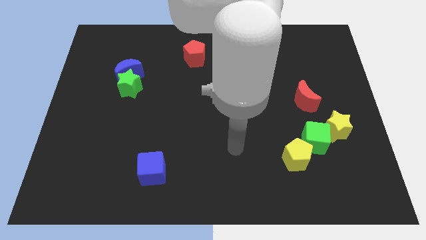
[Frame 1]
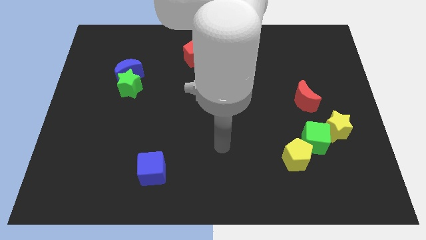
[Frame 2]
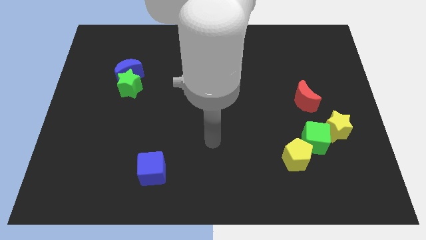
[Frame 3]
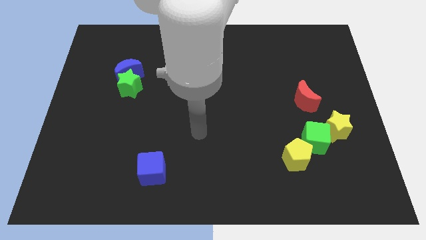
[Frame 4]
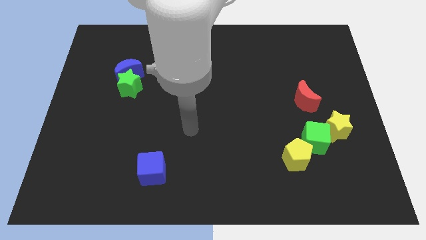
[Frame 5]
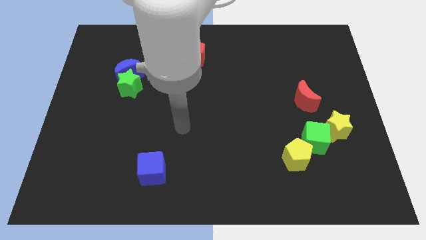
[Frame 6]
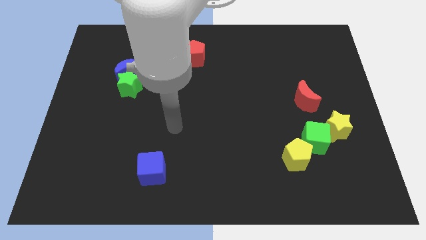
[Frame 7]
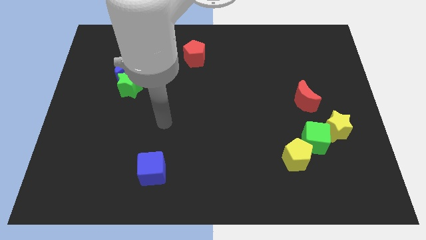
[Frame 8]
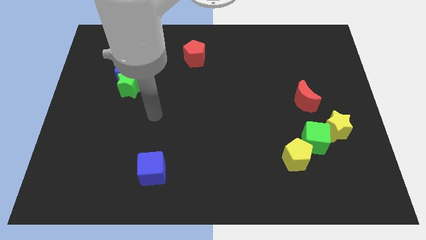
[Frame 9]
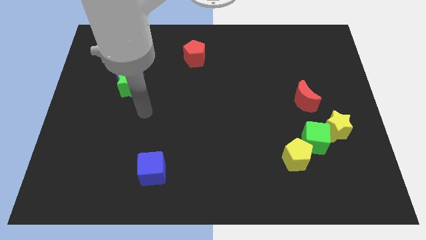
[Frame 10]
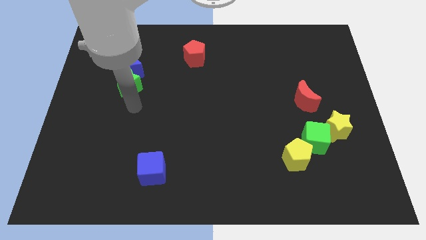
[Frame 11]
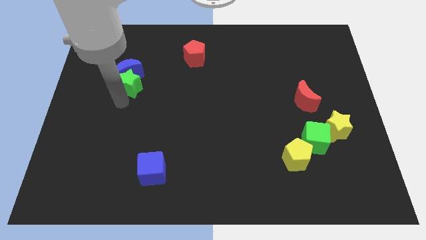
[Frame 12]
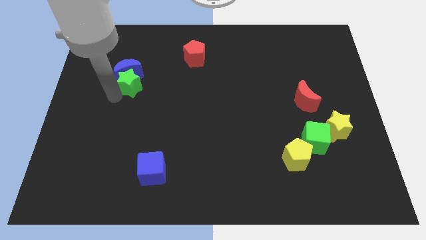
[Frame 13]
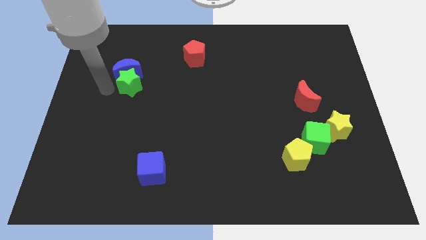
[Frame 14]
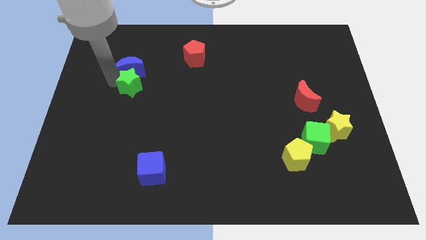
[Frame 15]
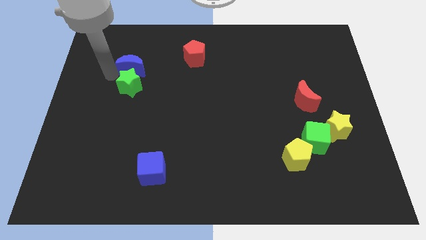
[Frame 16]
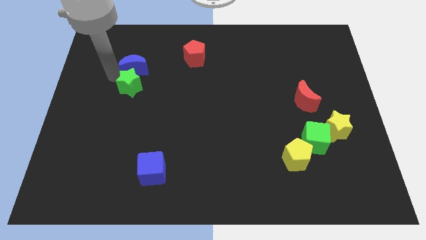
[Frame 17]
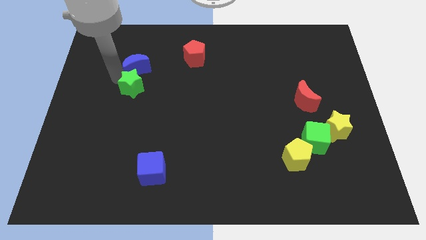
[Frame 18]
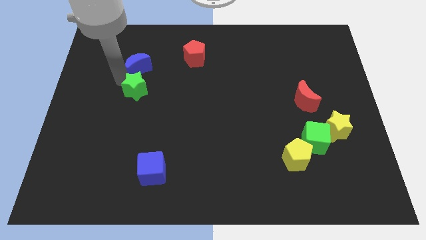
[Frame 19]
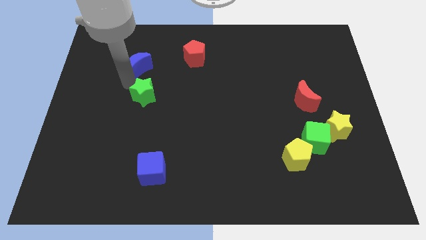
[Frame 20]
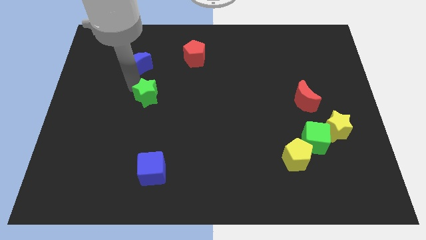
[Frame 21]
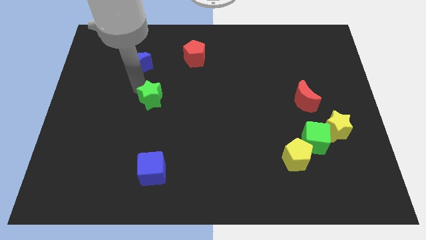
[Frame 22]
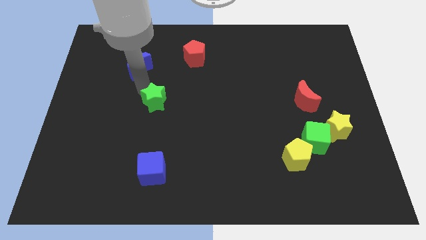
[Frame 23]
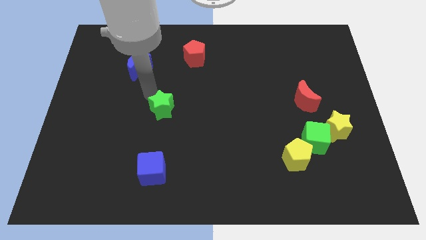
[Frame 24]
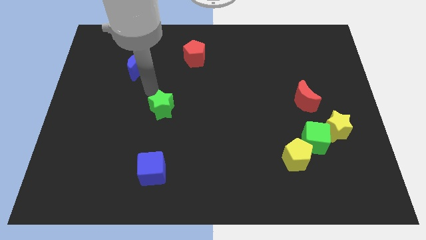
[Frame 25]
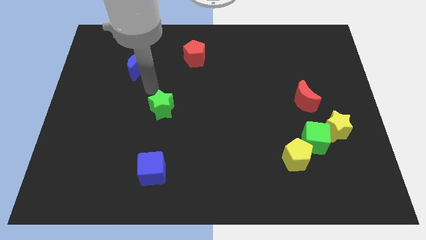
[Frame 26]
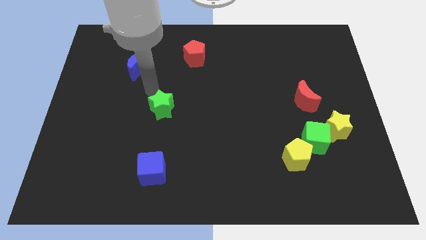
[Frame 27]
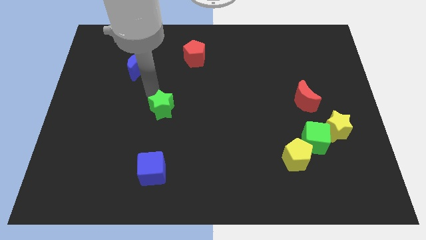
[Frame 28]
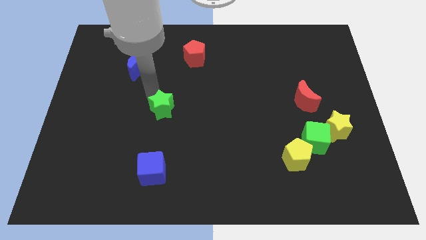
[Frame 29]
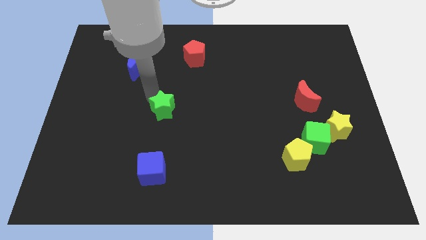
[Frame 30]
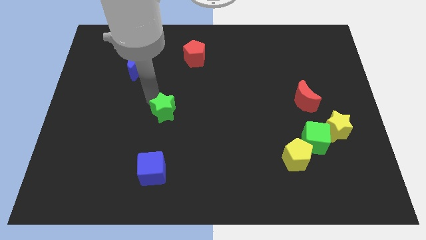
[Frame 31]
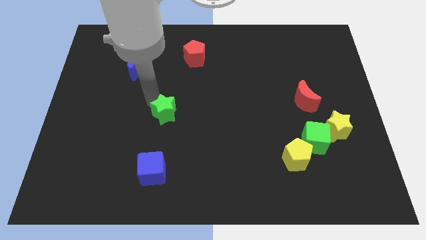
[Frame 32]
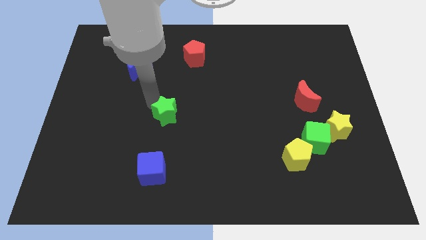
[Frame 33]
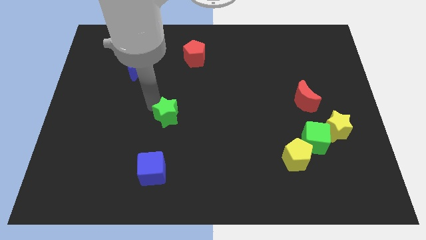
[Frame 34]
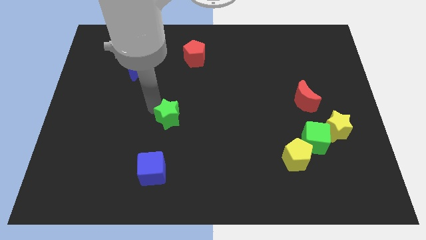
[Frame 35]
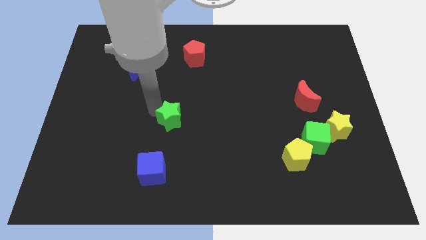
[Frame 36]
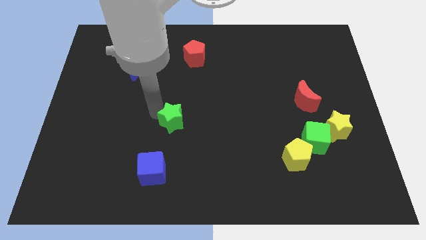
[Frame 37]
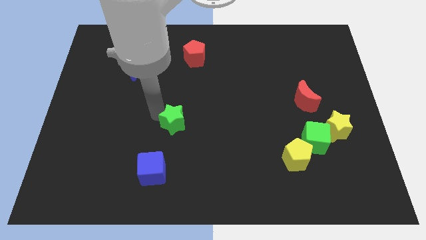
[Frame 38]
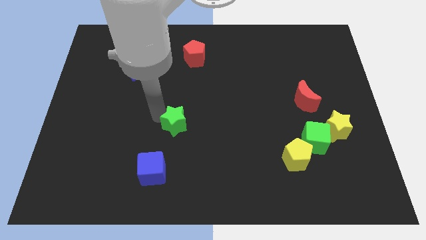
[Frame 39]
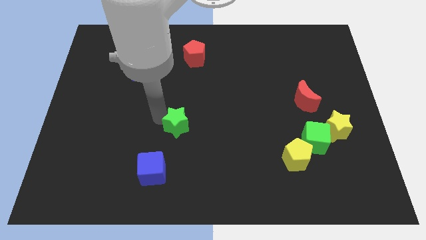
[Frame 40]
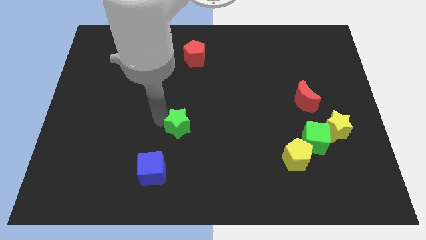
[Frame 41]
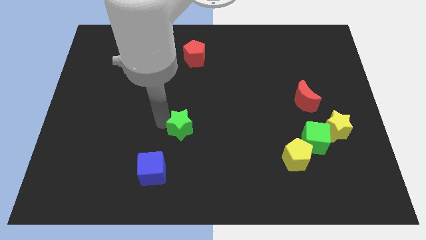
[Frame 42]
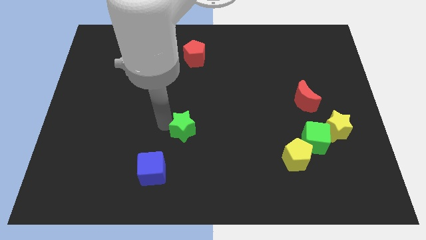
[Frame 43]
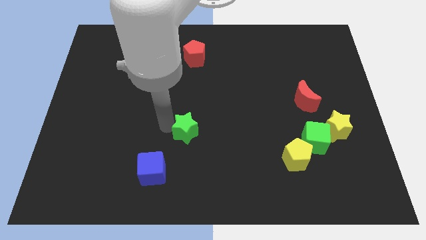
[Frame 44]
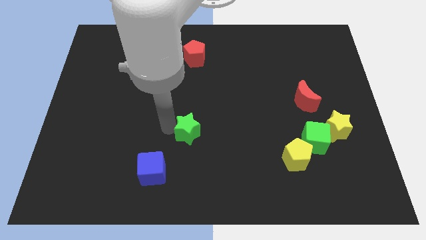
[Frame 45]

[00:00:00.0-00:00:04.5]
push the green star diagonally down and to the right

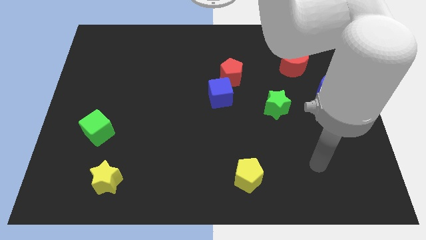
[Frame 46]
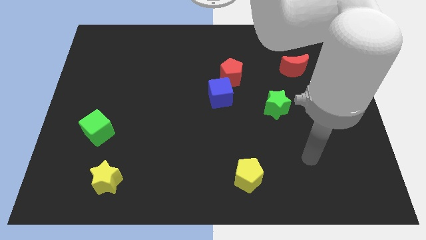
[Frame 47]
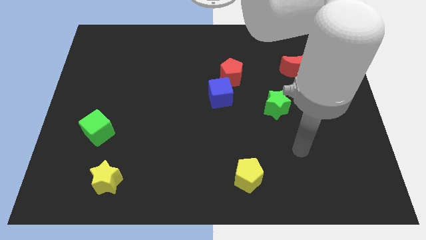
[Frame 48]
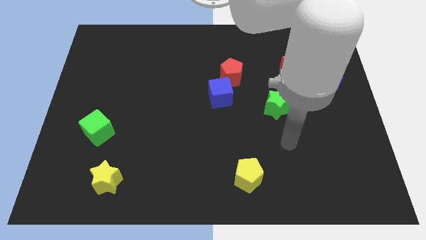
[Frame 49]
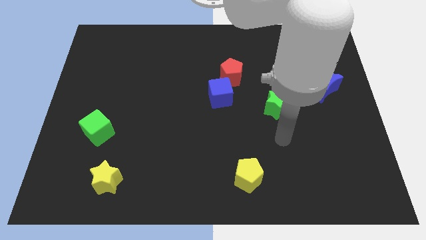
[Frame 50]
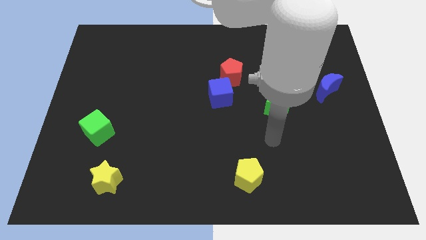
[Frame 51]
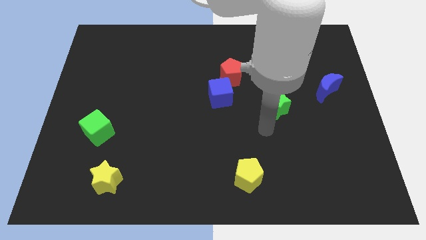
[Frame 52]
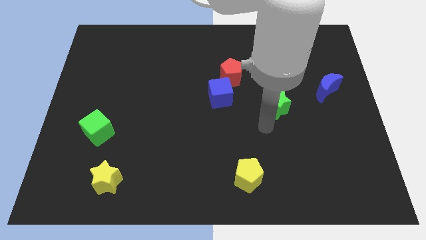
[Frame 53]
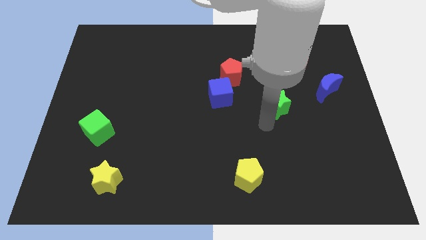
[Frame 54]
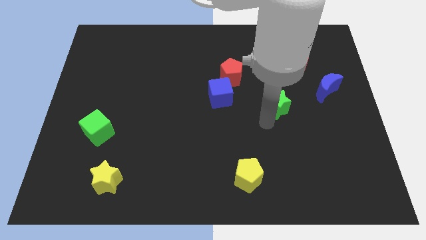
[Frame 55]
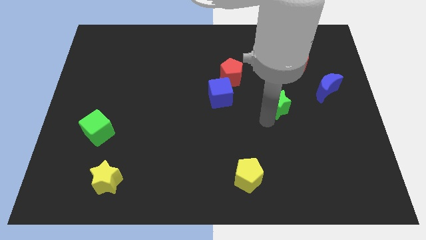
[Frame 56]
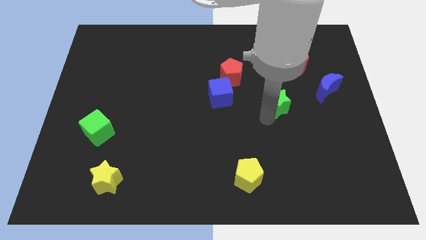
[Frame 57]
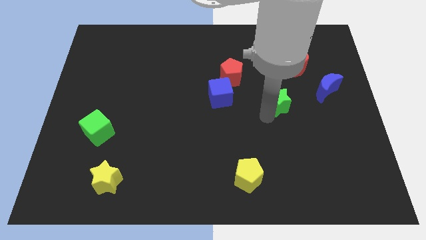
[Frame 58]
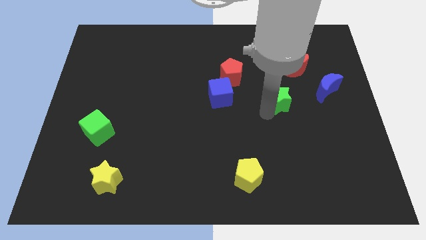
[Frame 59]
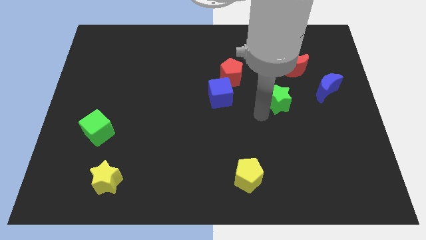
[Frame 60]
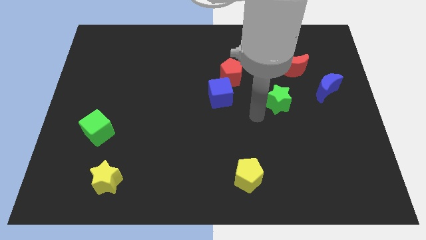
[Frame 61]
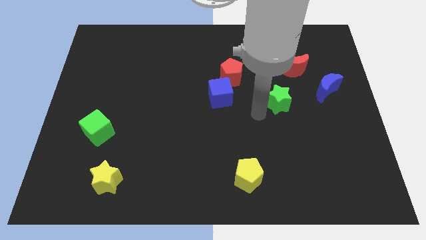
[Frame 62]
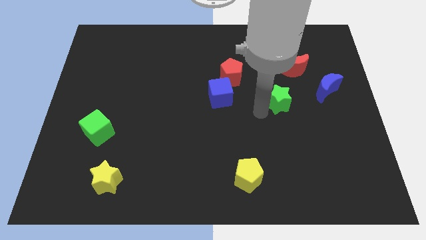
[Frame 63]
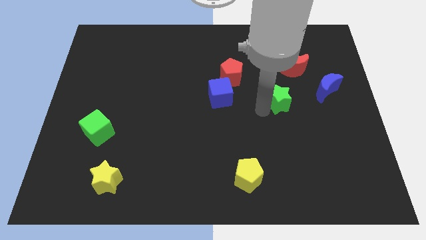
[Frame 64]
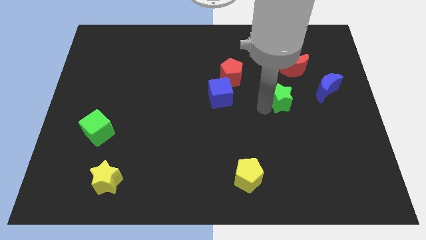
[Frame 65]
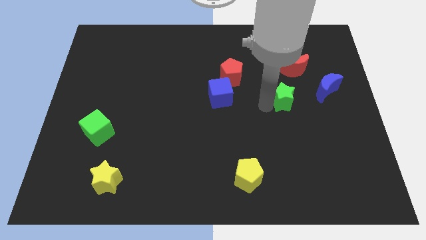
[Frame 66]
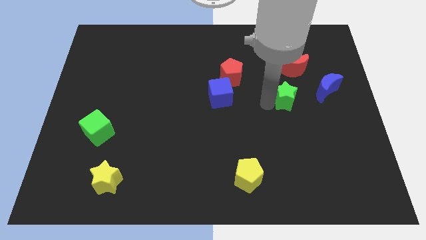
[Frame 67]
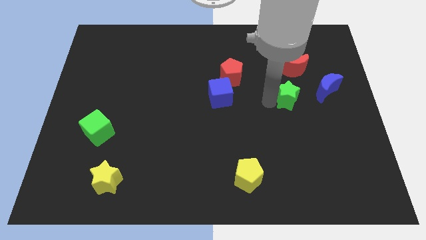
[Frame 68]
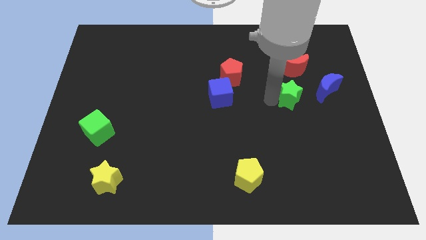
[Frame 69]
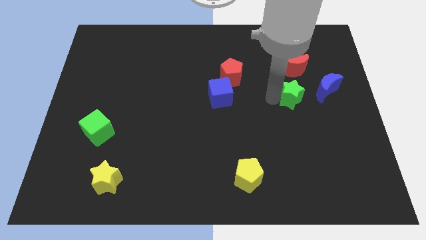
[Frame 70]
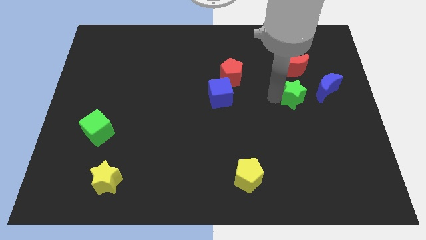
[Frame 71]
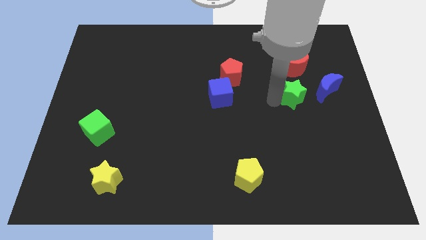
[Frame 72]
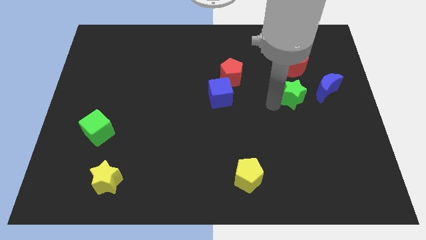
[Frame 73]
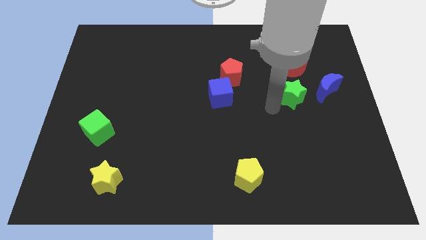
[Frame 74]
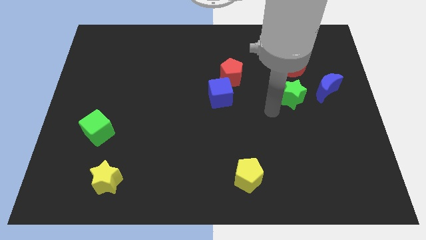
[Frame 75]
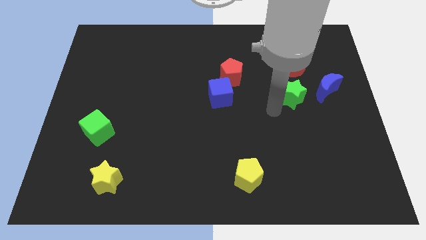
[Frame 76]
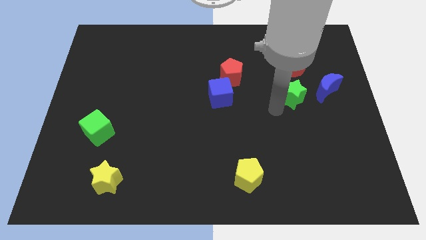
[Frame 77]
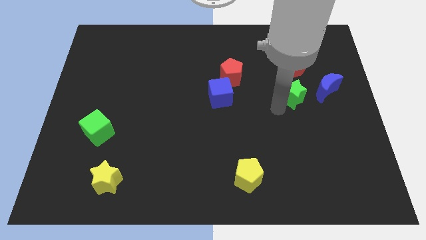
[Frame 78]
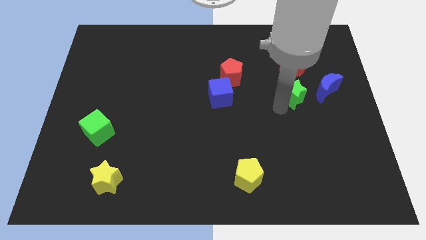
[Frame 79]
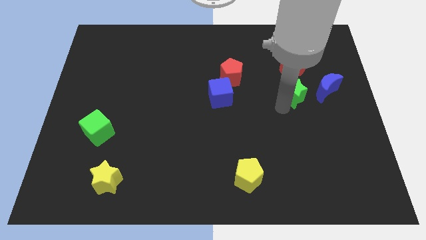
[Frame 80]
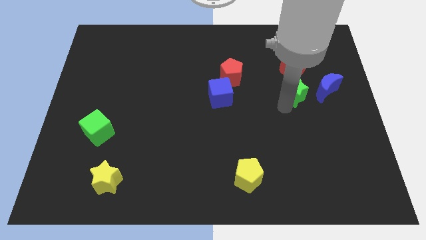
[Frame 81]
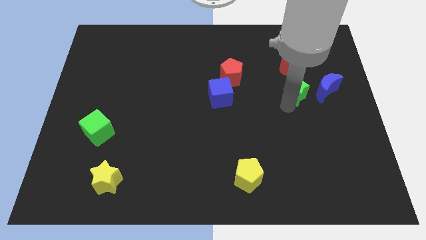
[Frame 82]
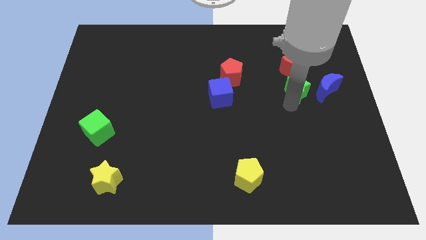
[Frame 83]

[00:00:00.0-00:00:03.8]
slide the green star a little upwards and right
